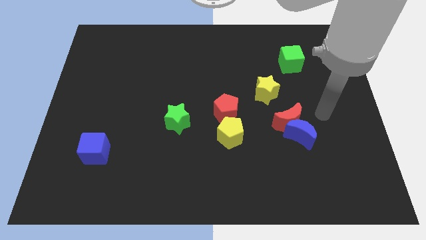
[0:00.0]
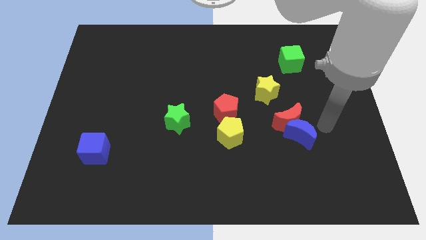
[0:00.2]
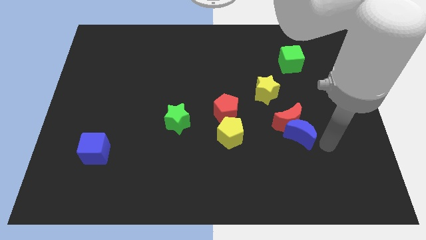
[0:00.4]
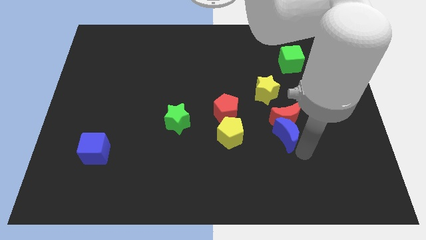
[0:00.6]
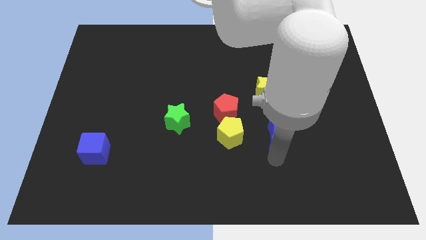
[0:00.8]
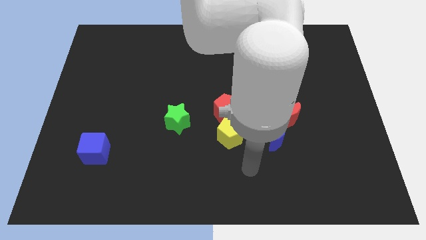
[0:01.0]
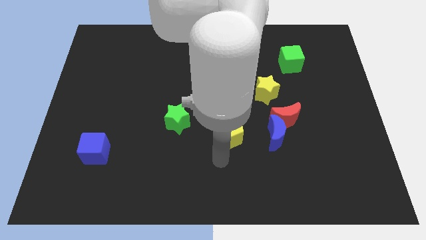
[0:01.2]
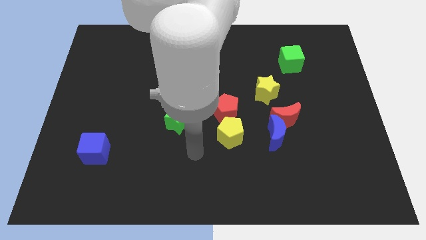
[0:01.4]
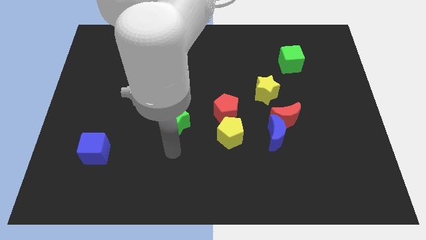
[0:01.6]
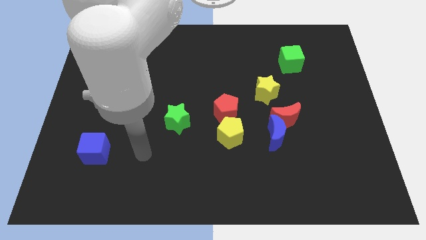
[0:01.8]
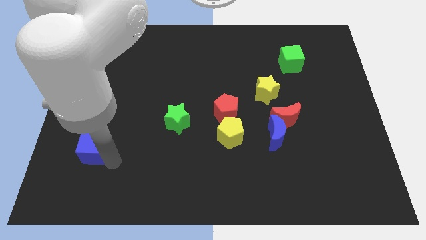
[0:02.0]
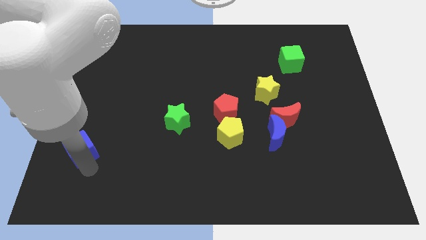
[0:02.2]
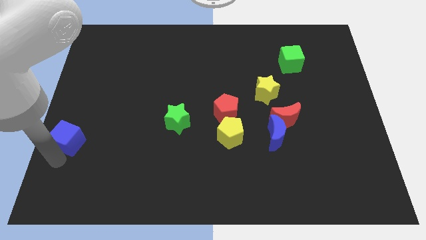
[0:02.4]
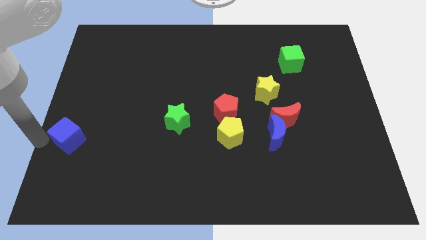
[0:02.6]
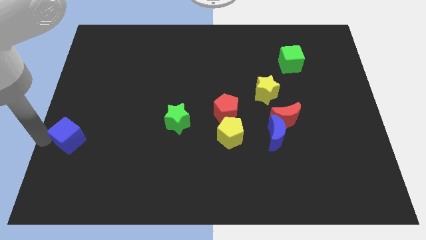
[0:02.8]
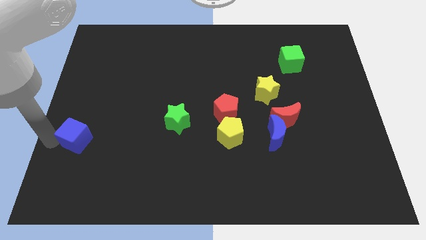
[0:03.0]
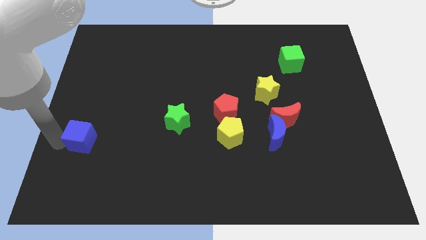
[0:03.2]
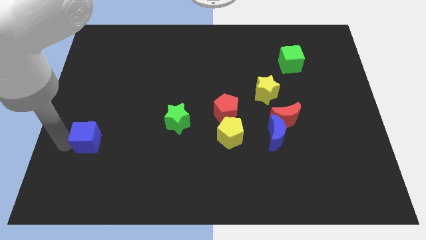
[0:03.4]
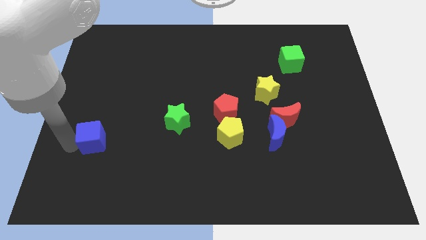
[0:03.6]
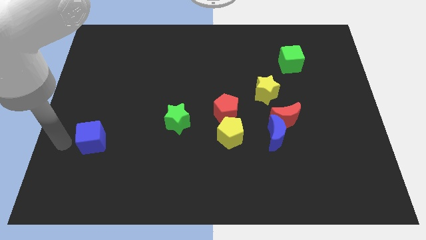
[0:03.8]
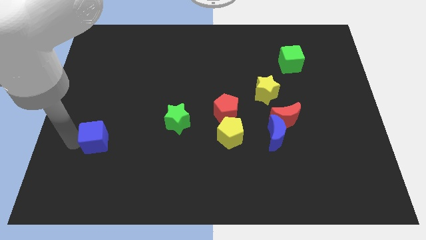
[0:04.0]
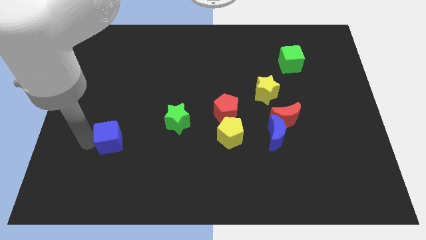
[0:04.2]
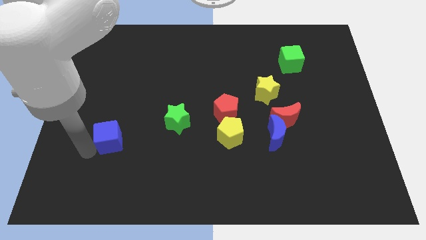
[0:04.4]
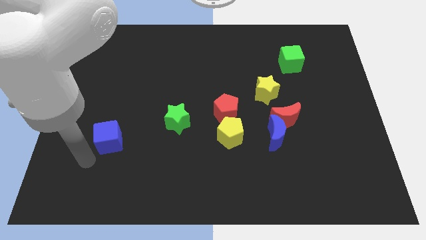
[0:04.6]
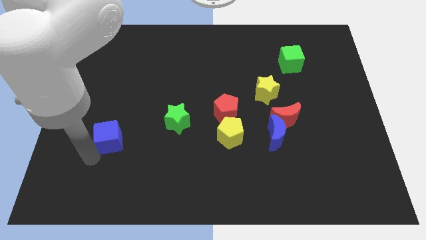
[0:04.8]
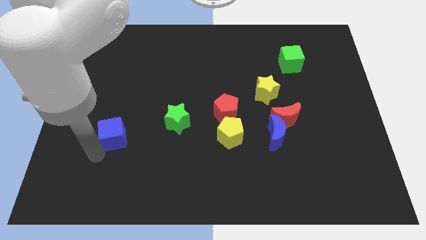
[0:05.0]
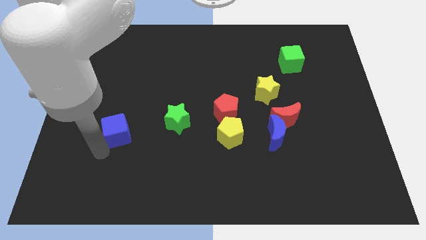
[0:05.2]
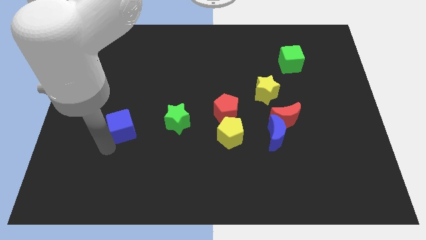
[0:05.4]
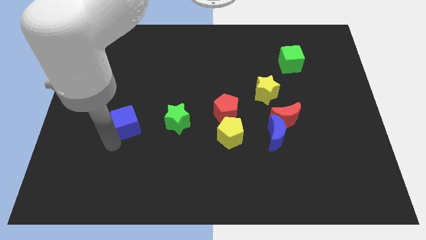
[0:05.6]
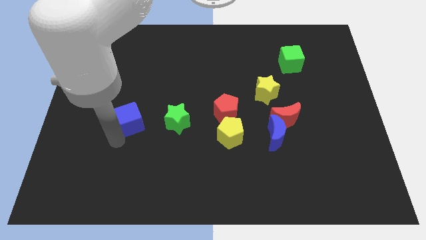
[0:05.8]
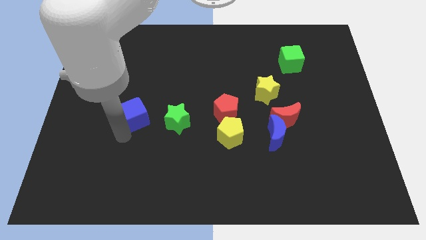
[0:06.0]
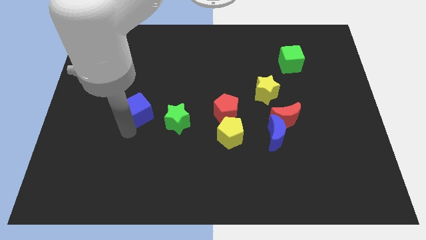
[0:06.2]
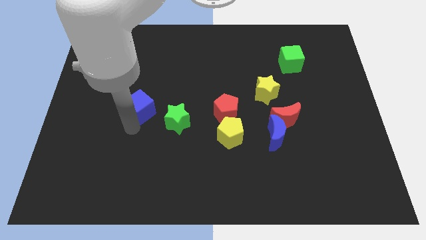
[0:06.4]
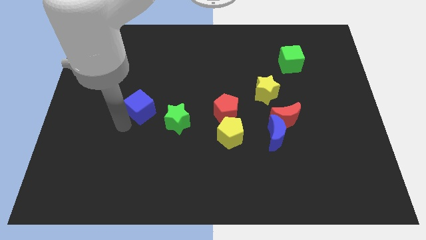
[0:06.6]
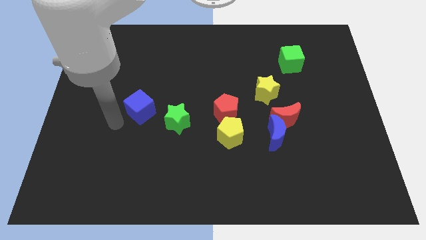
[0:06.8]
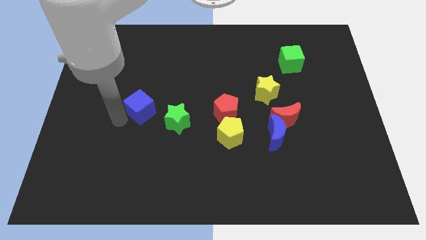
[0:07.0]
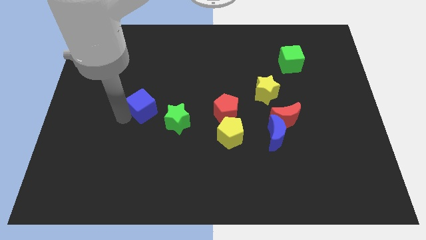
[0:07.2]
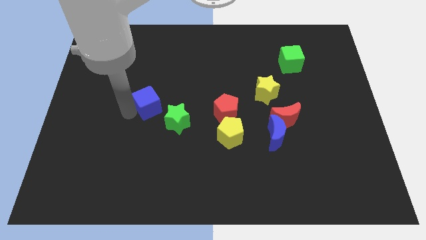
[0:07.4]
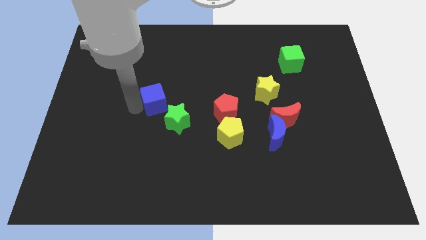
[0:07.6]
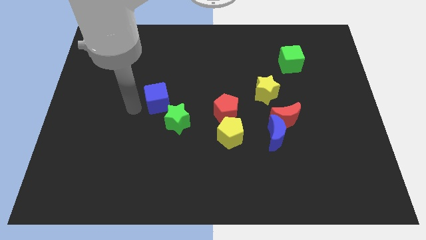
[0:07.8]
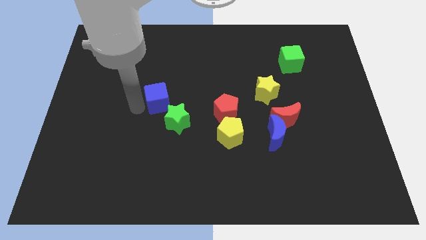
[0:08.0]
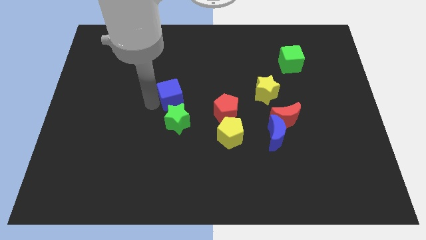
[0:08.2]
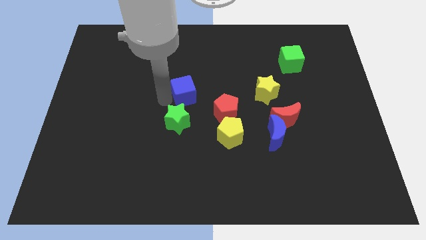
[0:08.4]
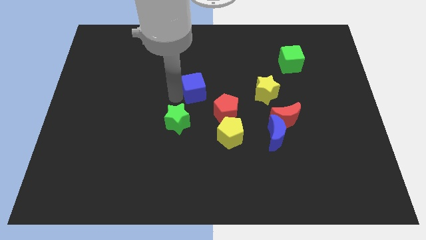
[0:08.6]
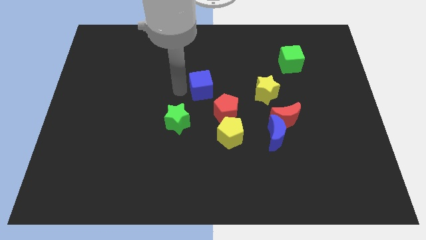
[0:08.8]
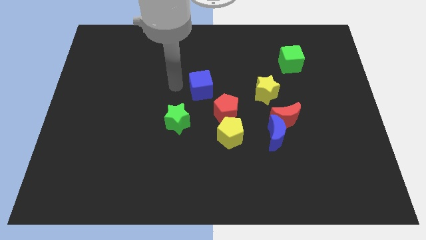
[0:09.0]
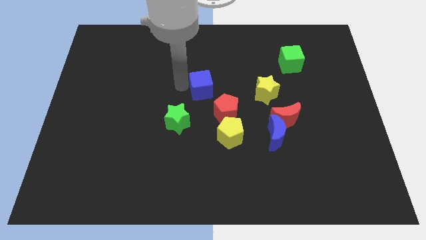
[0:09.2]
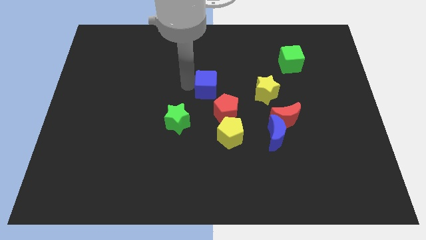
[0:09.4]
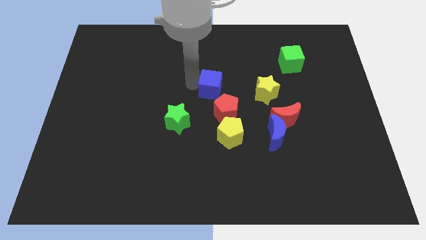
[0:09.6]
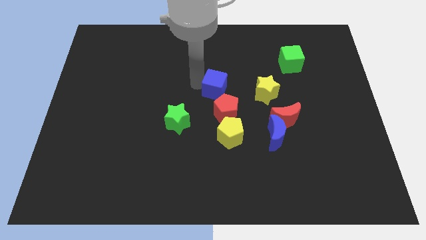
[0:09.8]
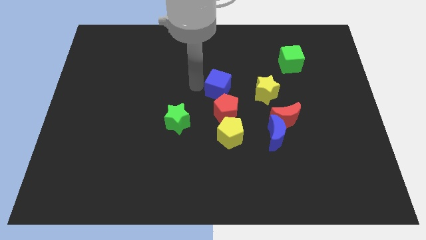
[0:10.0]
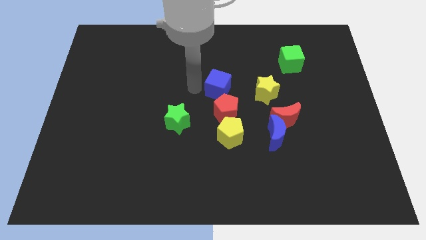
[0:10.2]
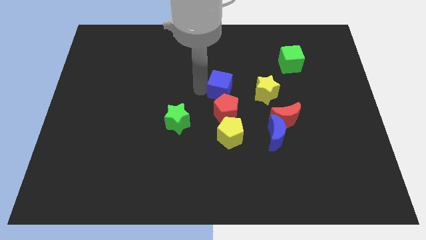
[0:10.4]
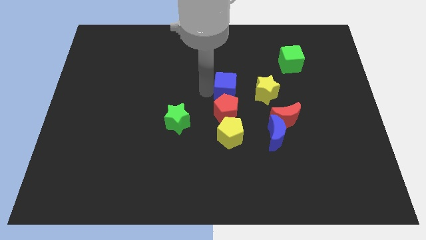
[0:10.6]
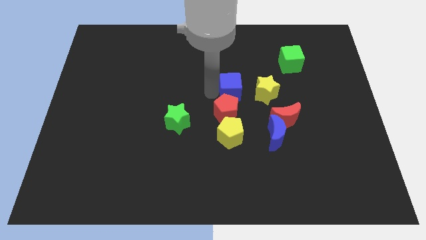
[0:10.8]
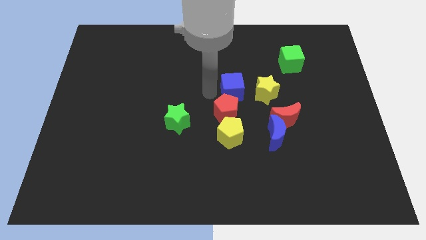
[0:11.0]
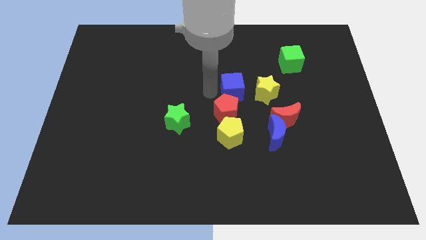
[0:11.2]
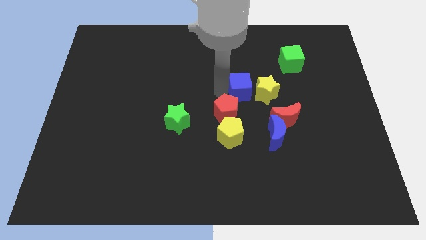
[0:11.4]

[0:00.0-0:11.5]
push the blue cube close to the yellow star
